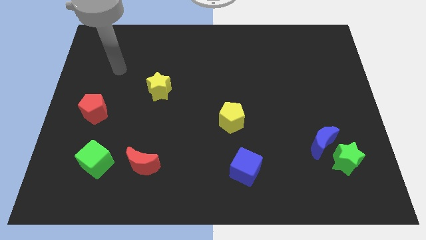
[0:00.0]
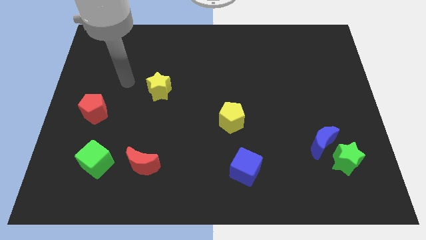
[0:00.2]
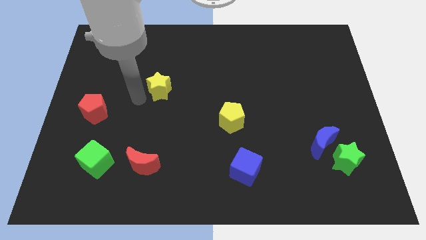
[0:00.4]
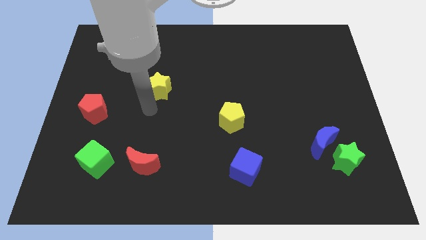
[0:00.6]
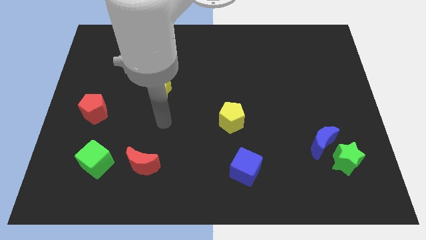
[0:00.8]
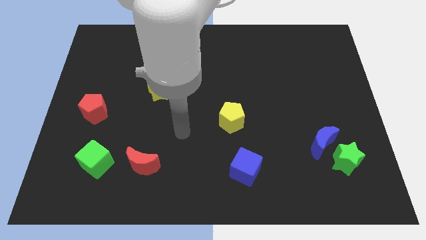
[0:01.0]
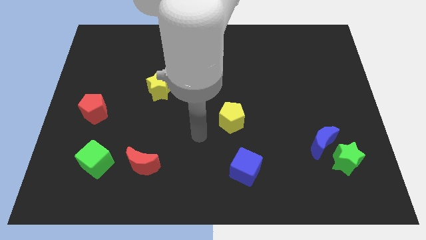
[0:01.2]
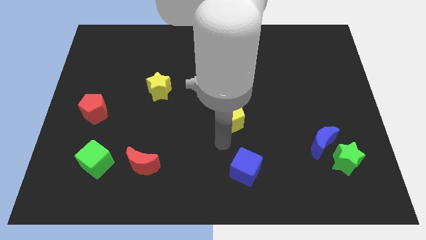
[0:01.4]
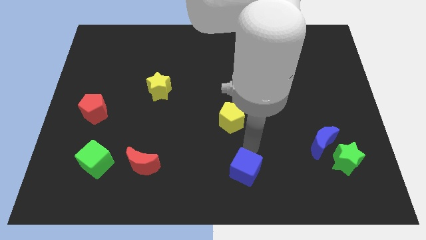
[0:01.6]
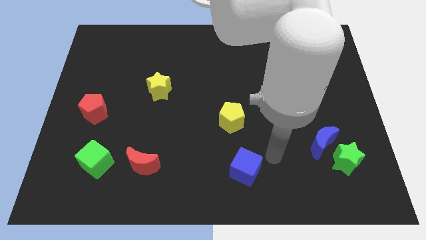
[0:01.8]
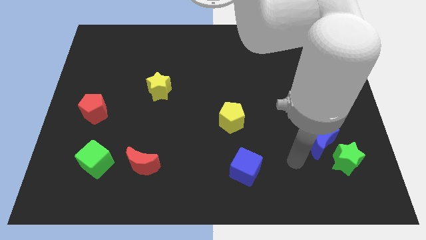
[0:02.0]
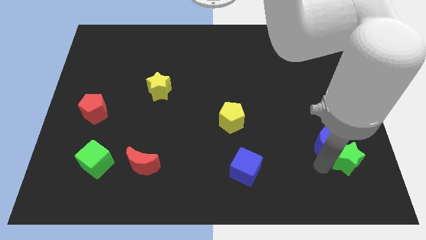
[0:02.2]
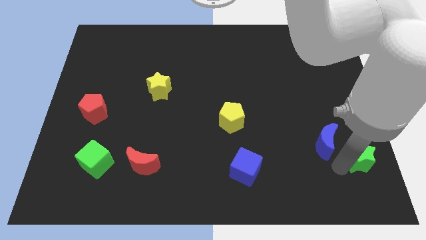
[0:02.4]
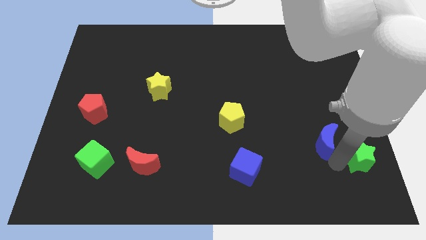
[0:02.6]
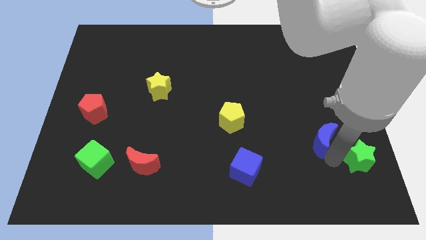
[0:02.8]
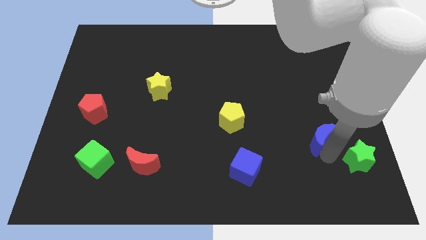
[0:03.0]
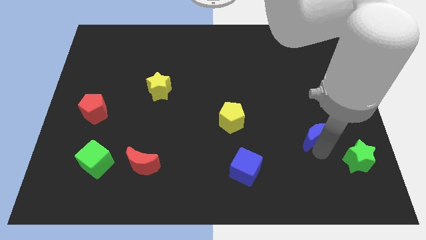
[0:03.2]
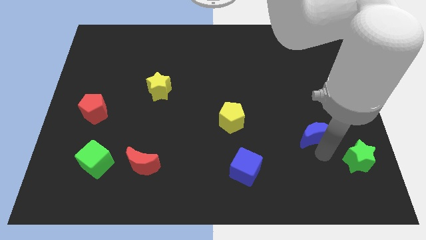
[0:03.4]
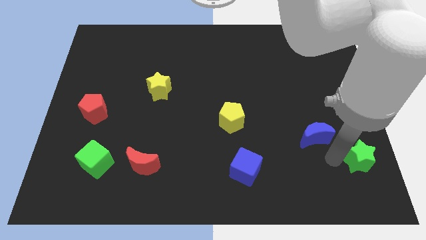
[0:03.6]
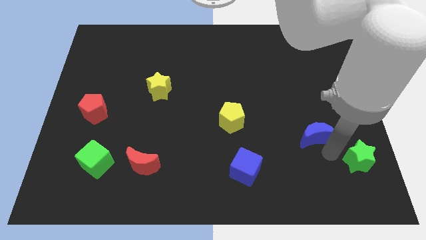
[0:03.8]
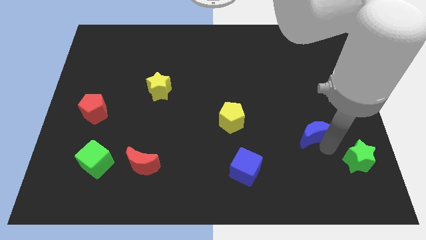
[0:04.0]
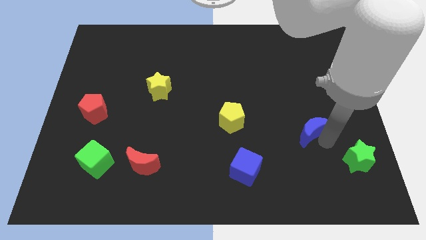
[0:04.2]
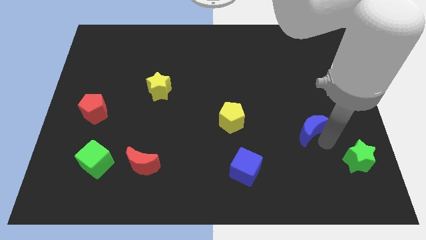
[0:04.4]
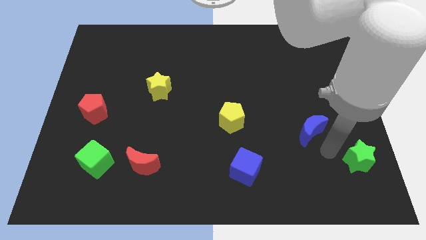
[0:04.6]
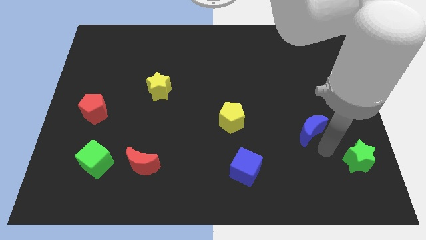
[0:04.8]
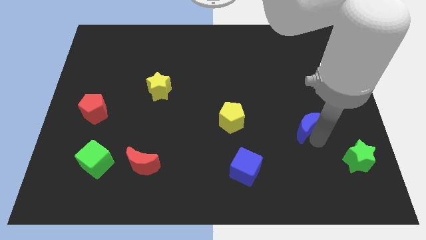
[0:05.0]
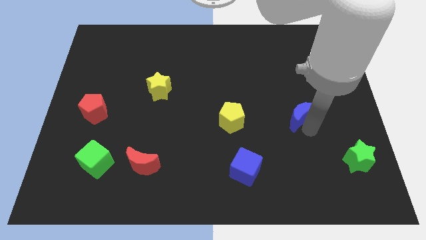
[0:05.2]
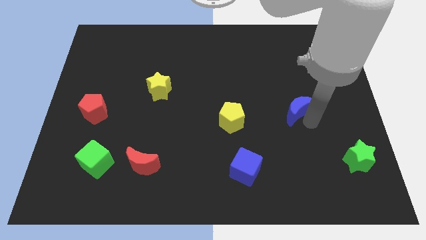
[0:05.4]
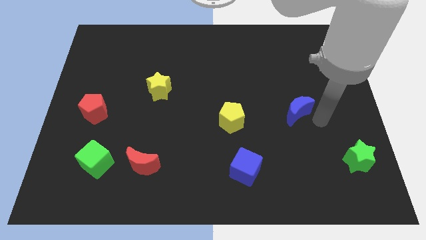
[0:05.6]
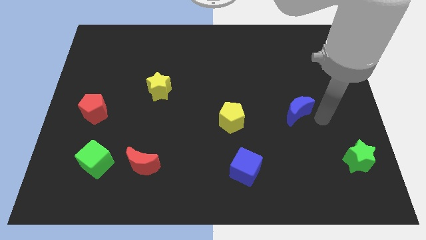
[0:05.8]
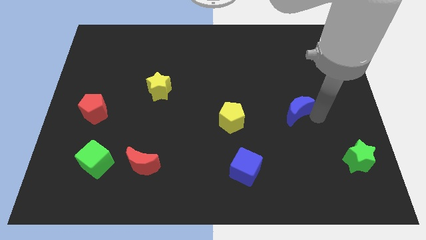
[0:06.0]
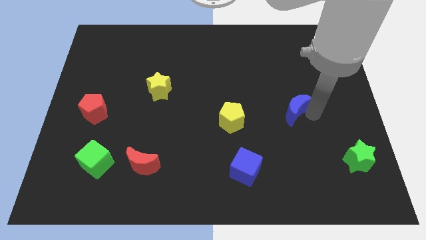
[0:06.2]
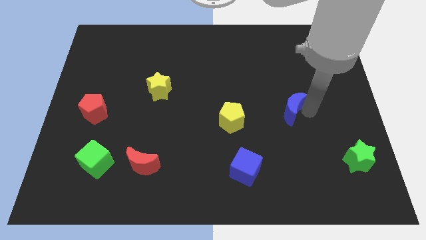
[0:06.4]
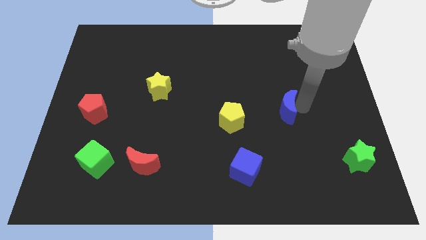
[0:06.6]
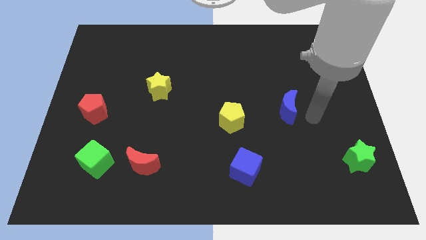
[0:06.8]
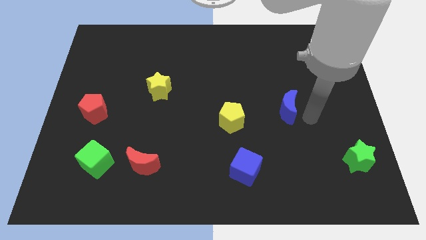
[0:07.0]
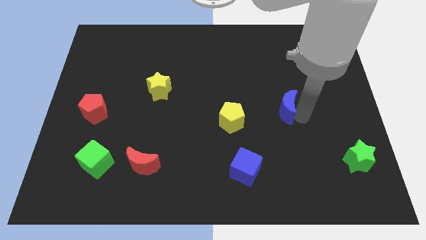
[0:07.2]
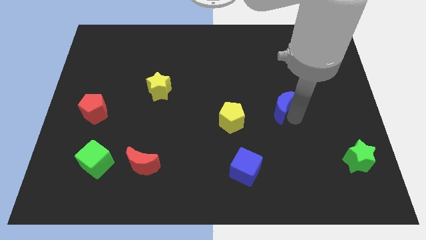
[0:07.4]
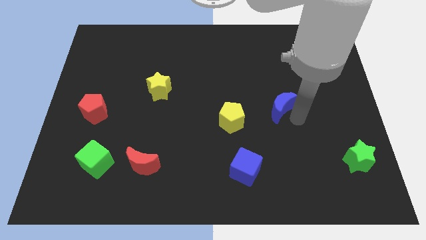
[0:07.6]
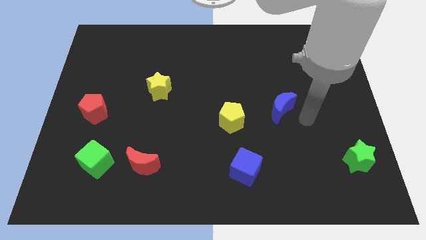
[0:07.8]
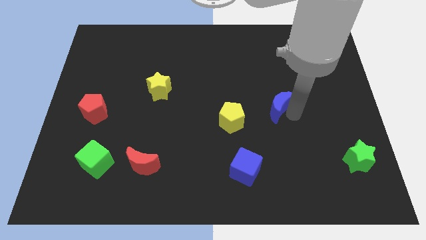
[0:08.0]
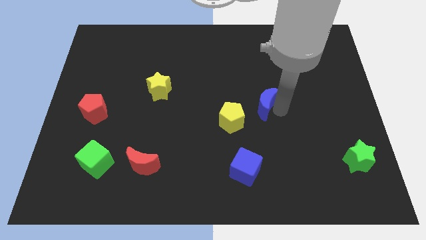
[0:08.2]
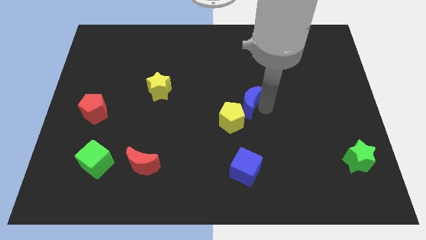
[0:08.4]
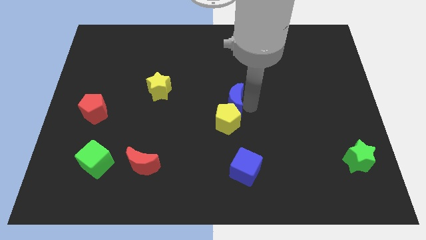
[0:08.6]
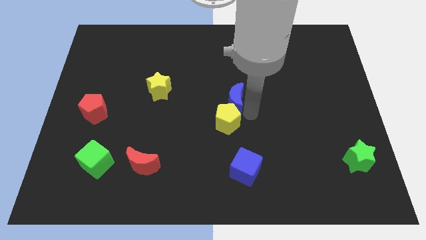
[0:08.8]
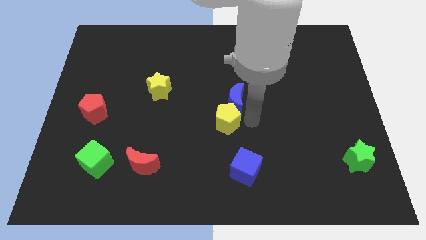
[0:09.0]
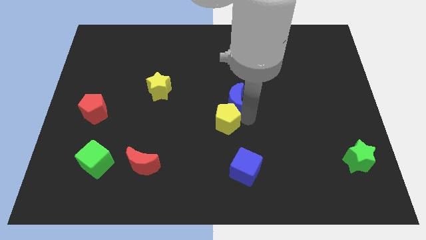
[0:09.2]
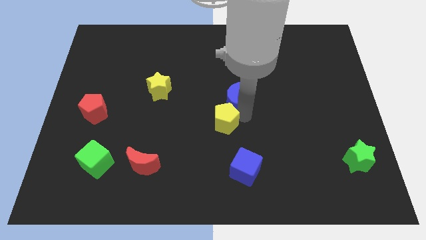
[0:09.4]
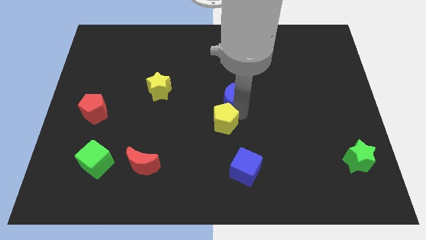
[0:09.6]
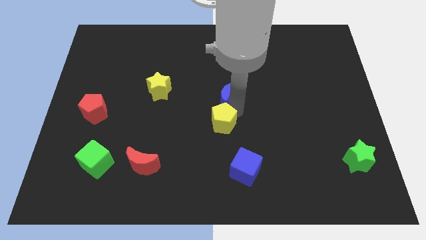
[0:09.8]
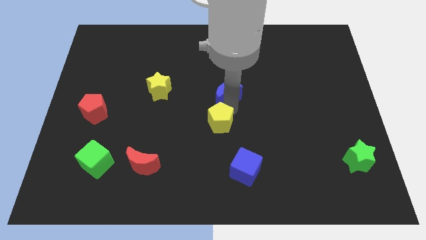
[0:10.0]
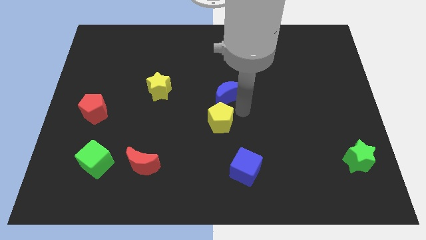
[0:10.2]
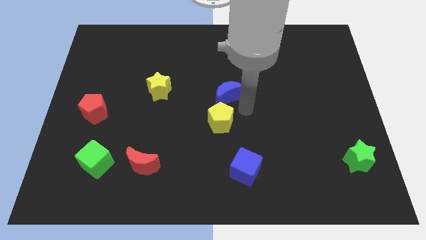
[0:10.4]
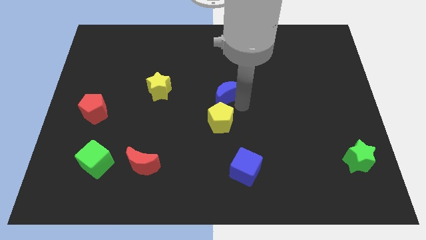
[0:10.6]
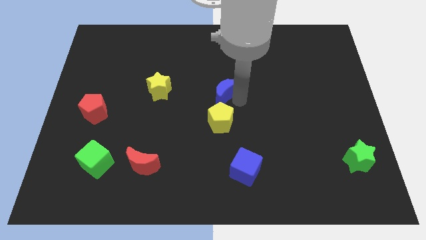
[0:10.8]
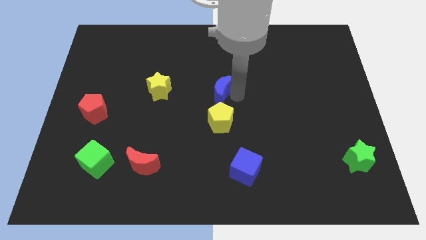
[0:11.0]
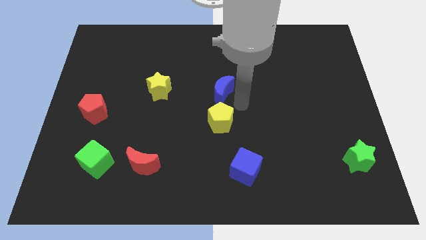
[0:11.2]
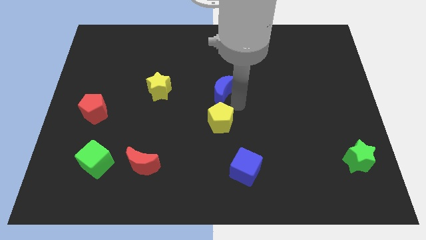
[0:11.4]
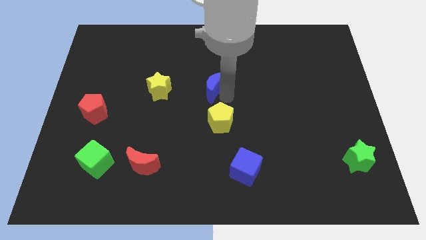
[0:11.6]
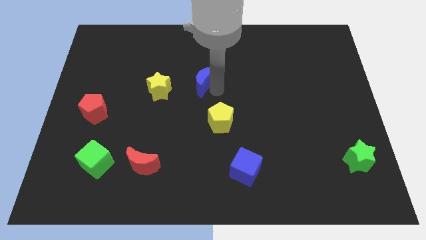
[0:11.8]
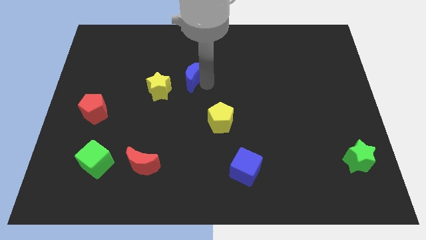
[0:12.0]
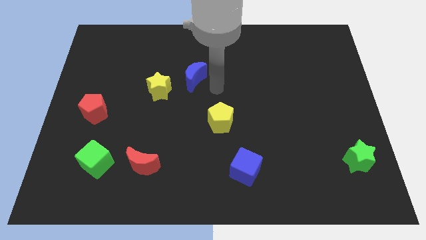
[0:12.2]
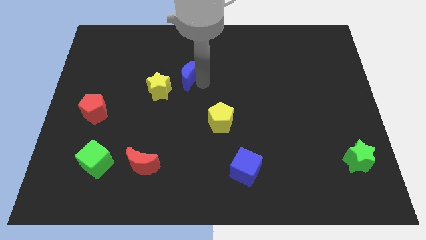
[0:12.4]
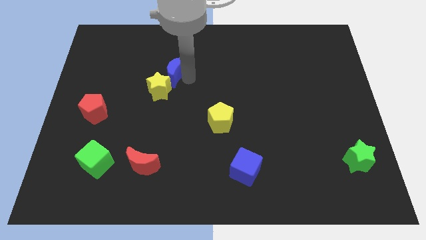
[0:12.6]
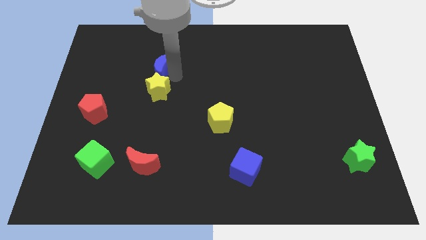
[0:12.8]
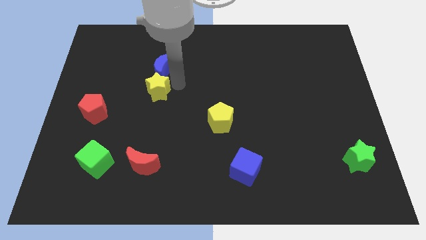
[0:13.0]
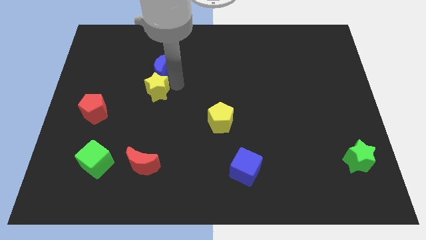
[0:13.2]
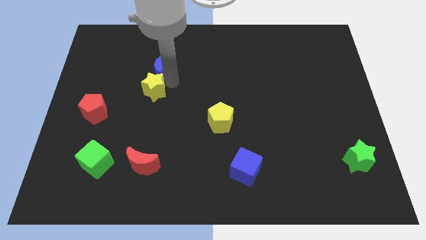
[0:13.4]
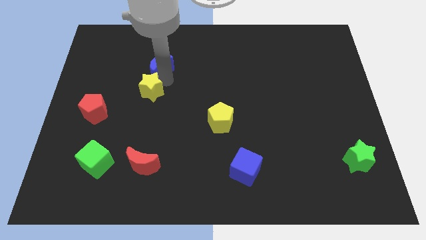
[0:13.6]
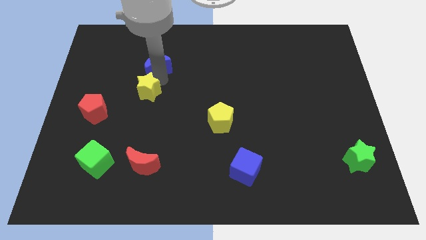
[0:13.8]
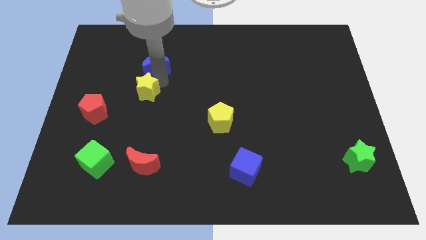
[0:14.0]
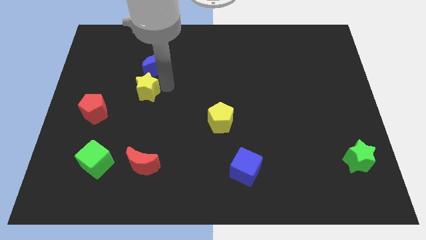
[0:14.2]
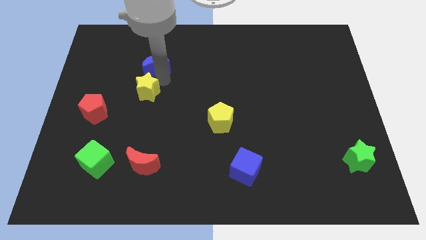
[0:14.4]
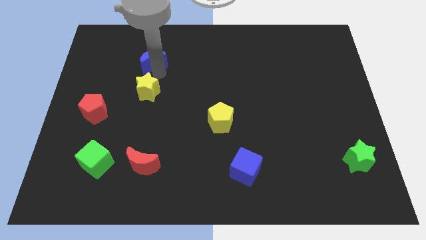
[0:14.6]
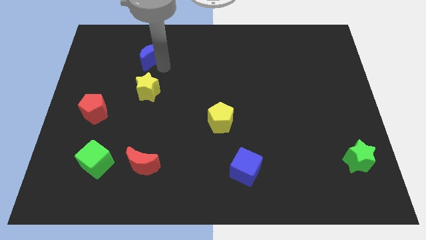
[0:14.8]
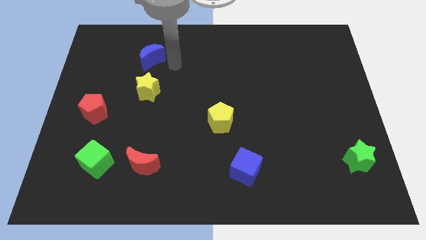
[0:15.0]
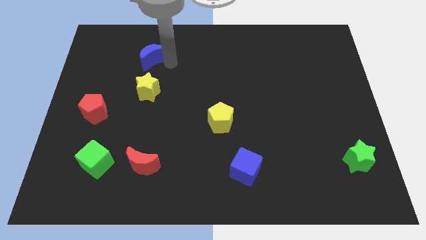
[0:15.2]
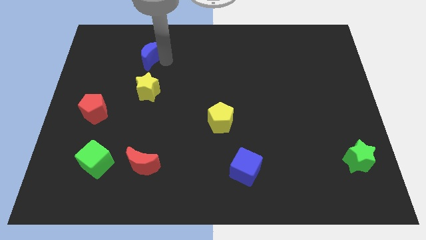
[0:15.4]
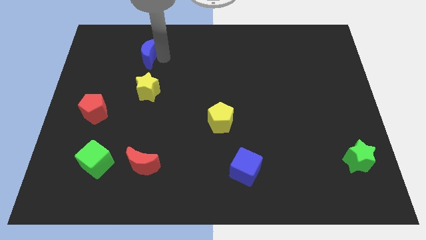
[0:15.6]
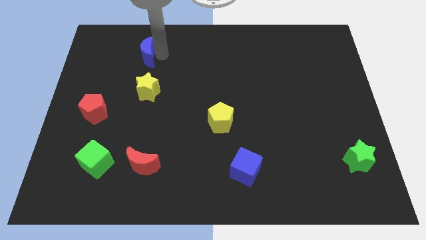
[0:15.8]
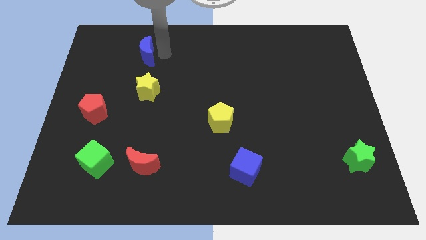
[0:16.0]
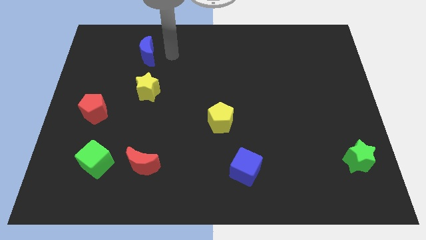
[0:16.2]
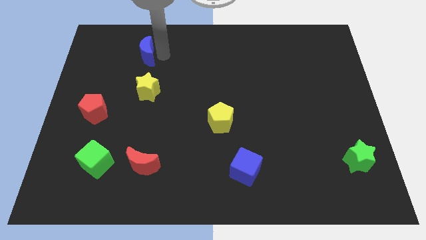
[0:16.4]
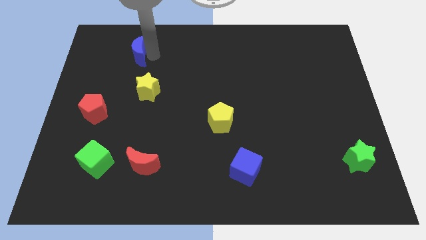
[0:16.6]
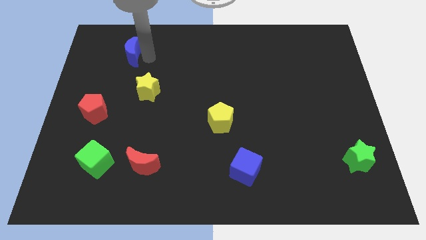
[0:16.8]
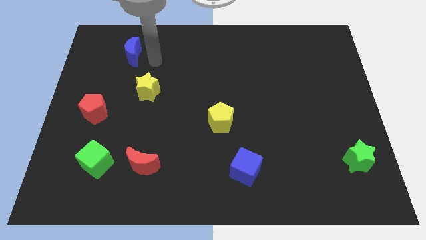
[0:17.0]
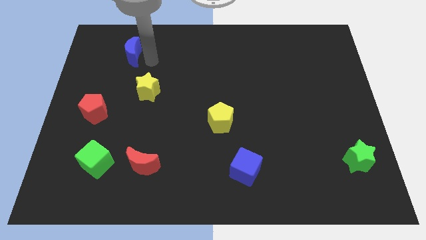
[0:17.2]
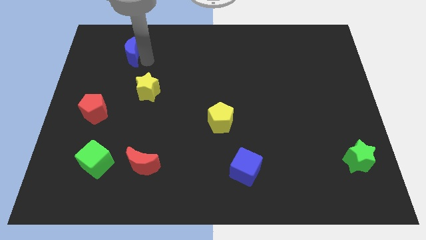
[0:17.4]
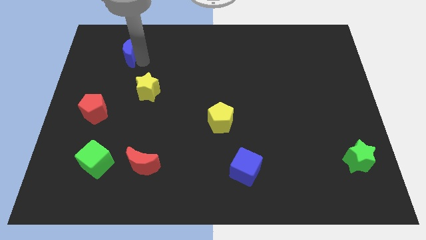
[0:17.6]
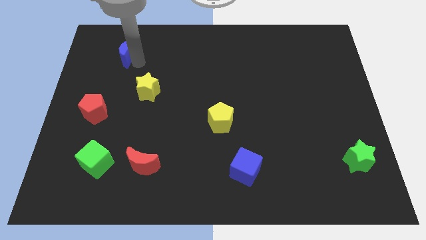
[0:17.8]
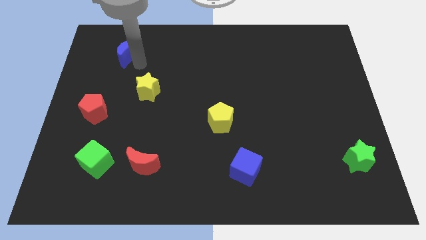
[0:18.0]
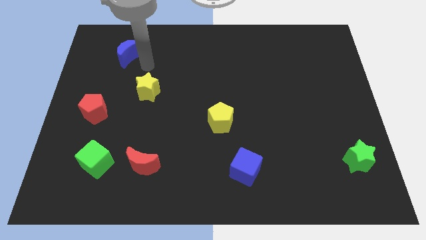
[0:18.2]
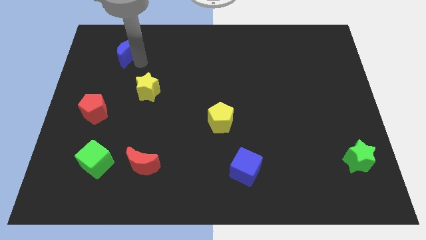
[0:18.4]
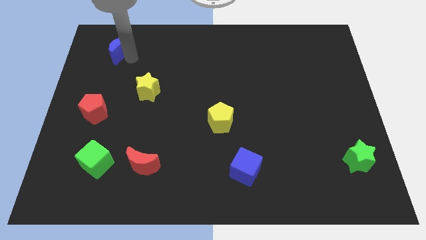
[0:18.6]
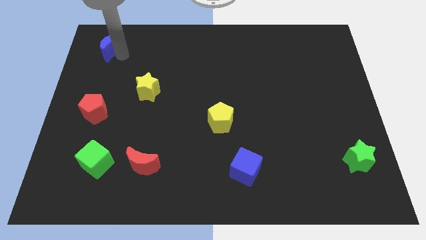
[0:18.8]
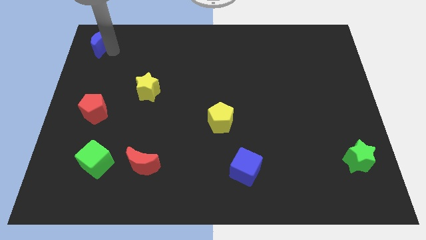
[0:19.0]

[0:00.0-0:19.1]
slide the blue moon to the upper left corner
